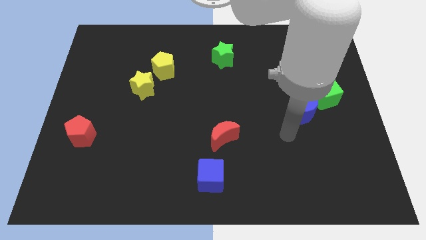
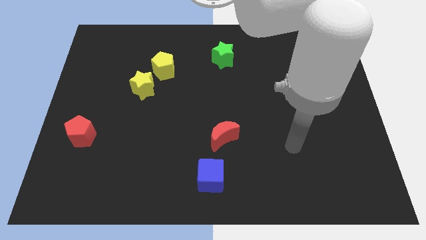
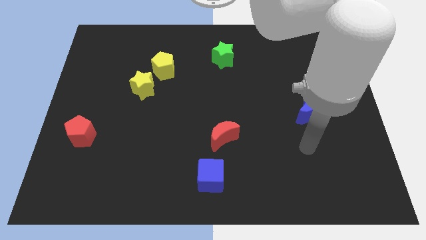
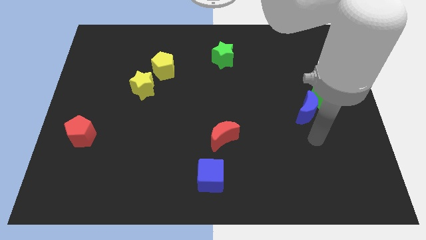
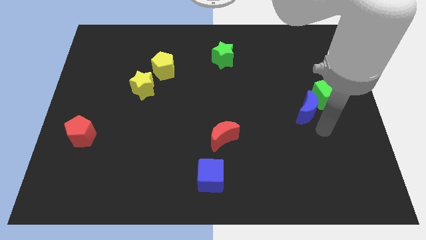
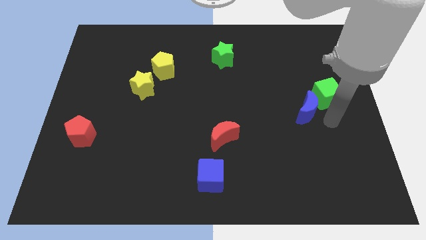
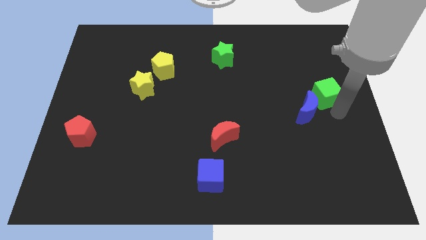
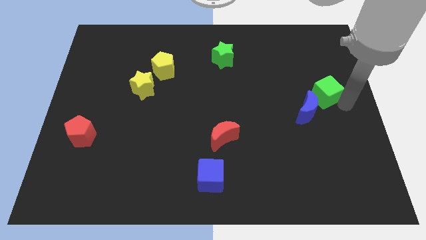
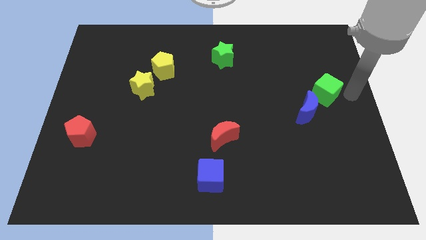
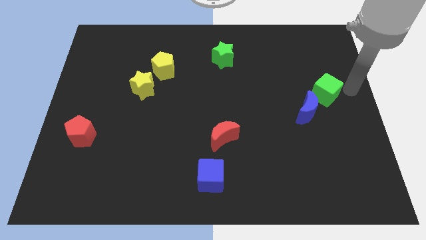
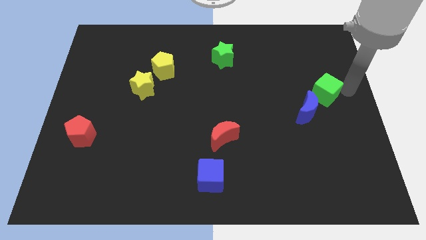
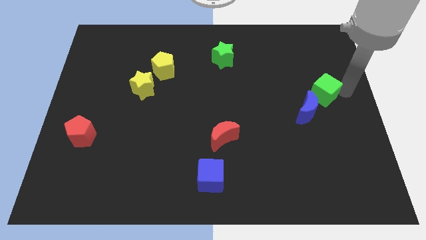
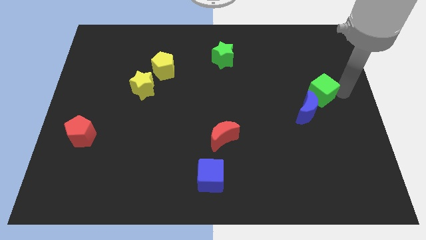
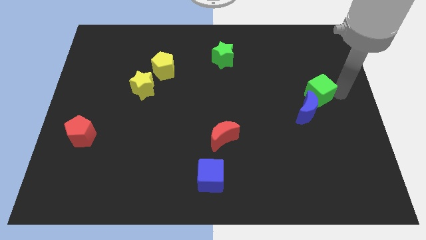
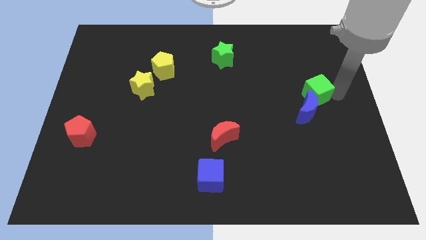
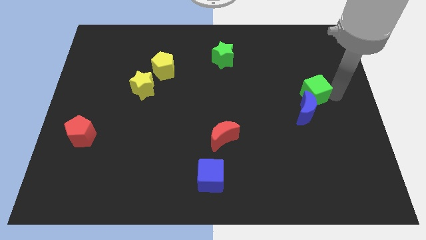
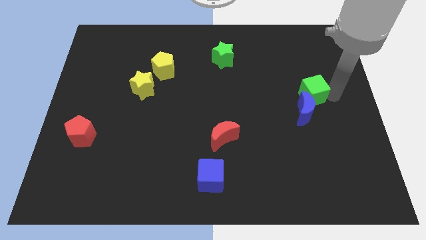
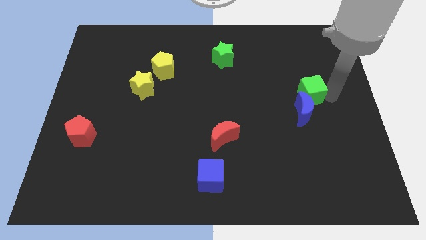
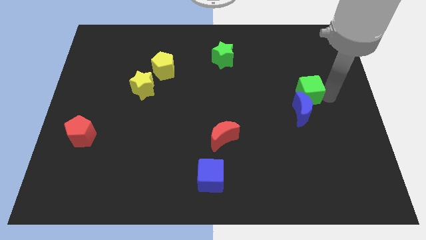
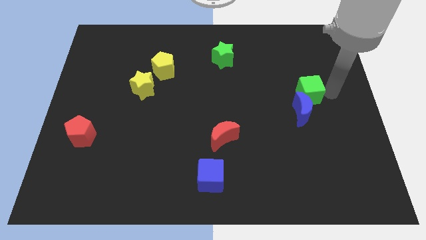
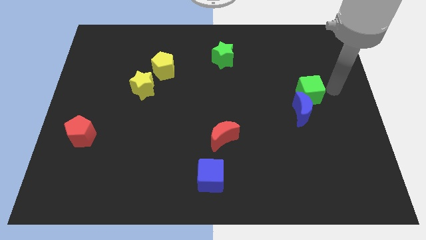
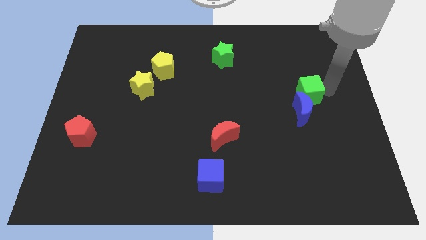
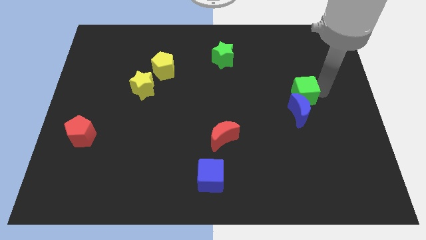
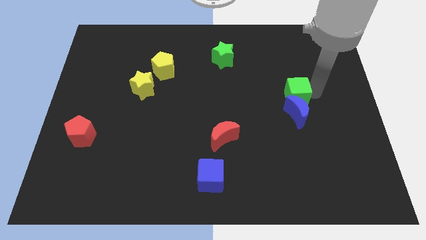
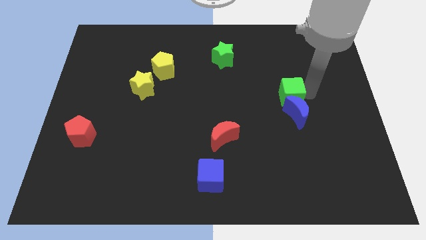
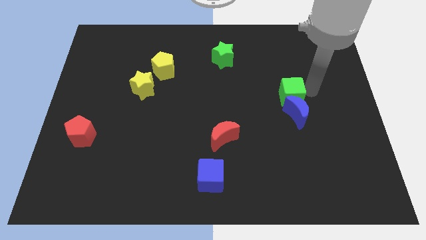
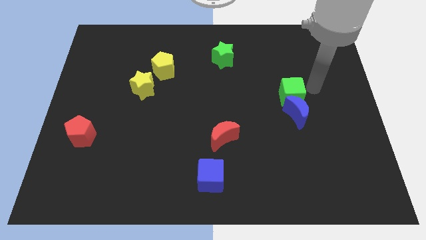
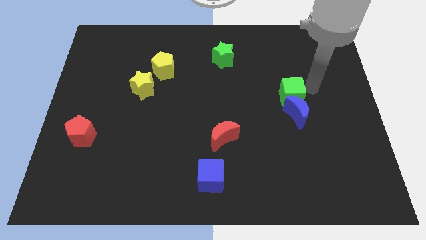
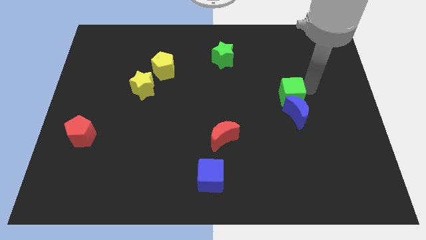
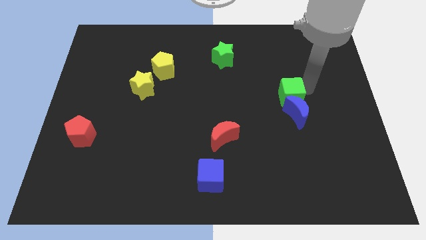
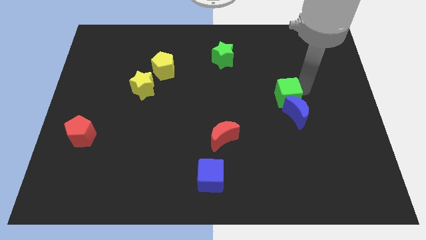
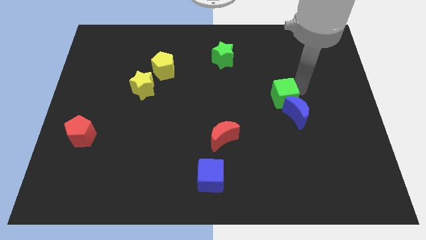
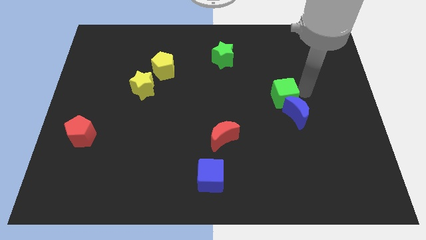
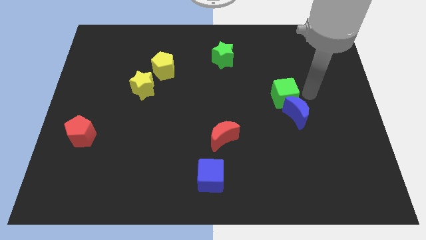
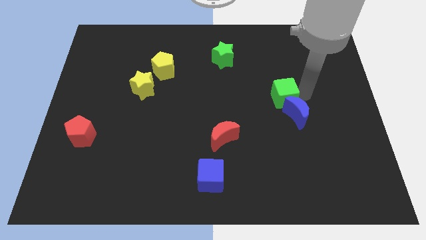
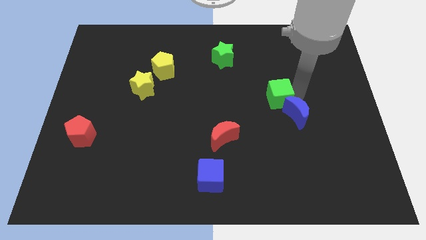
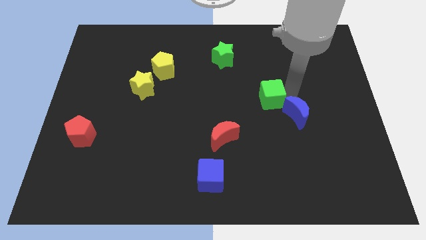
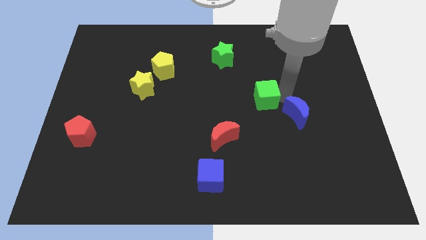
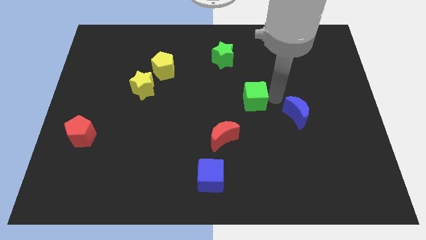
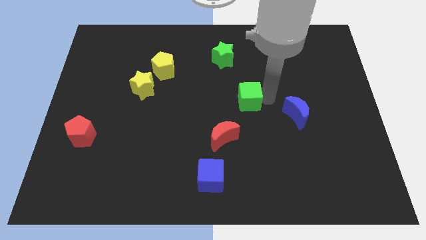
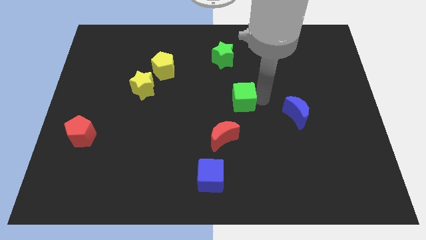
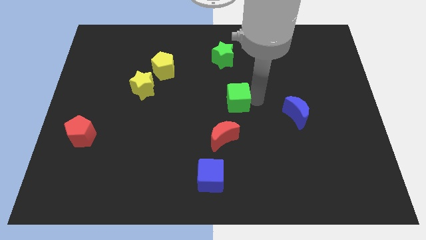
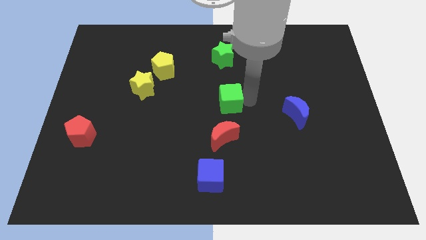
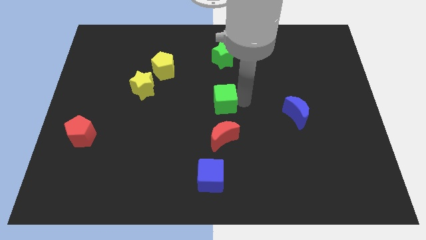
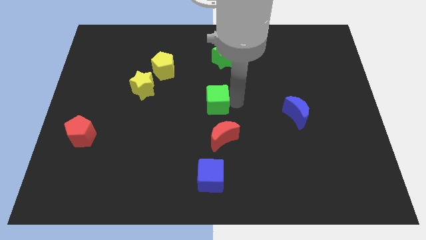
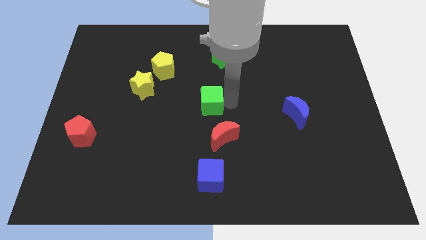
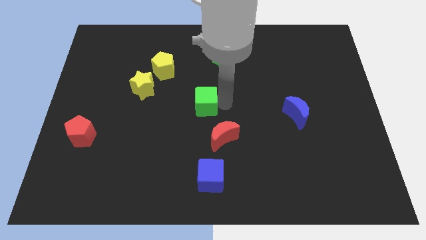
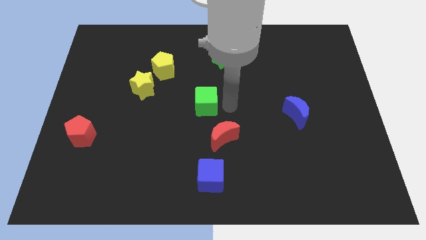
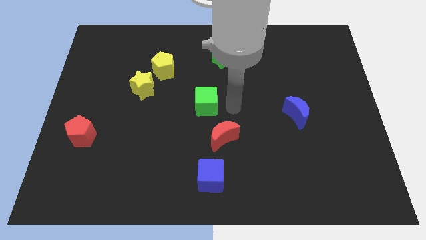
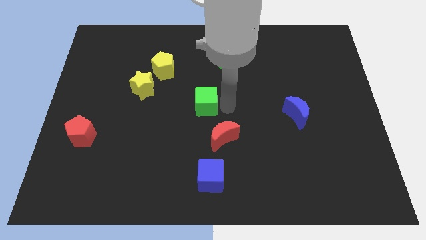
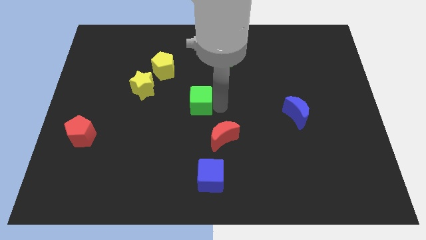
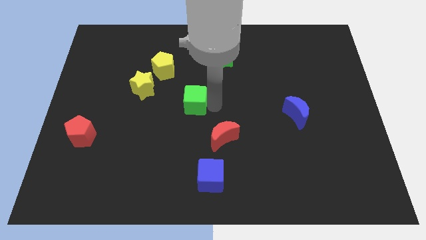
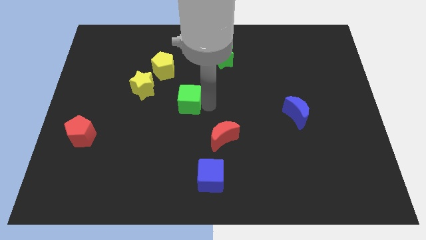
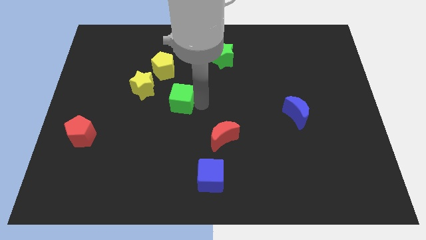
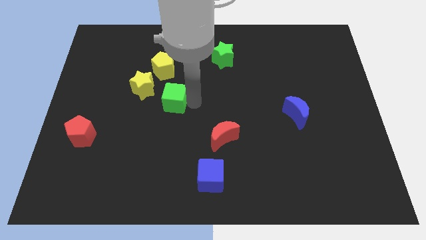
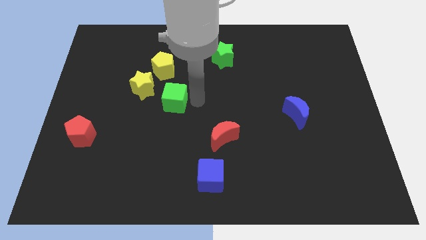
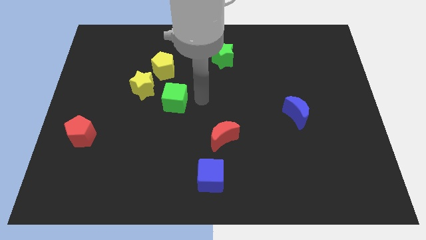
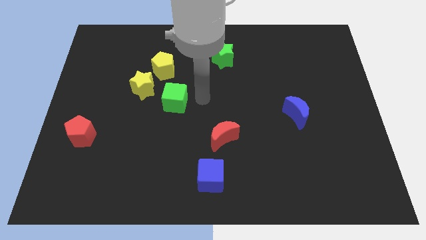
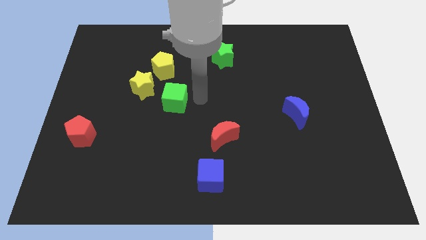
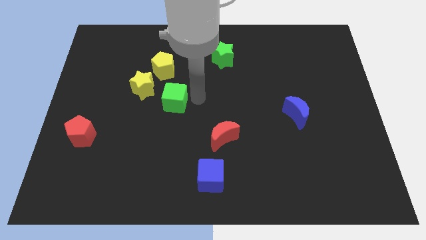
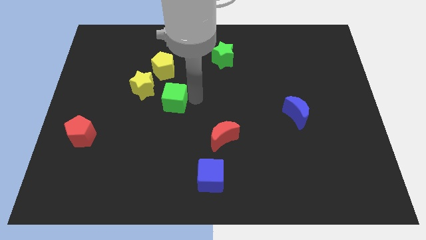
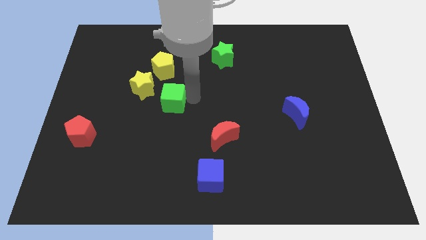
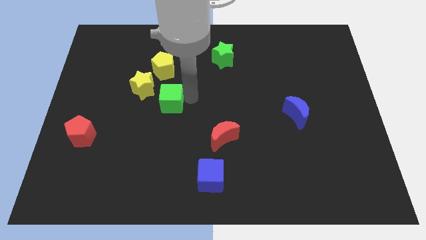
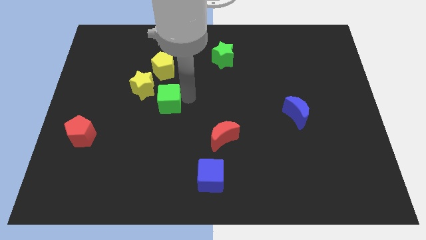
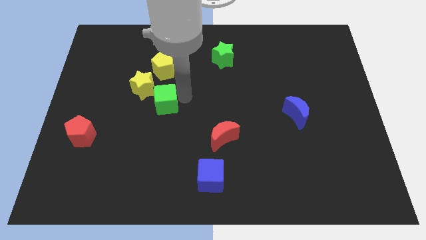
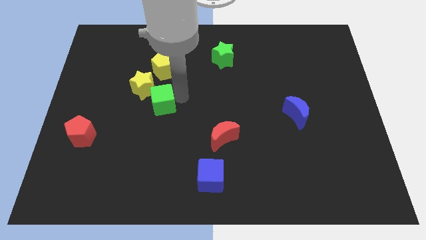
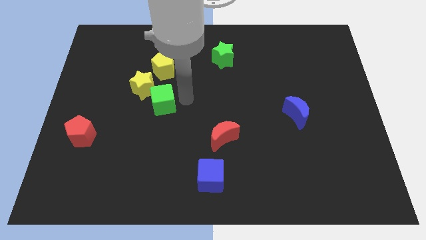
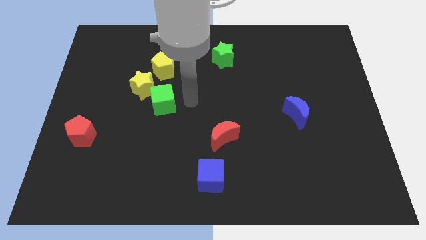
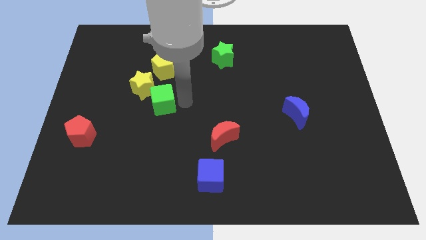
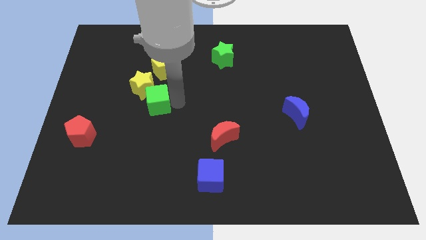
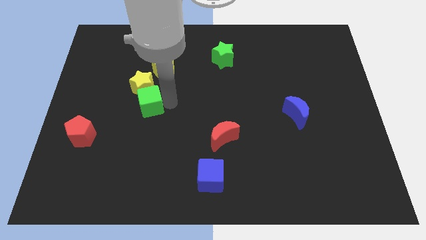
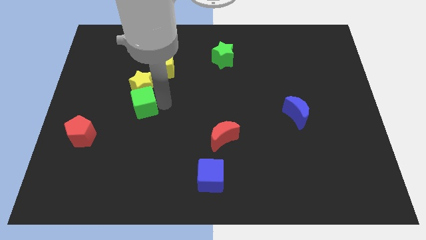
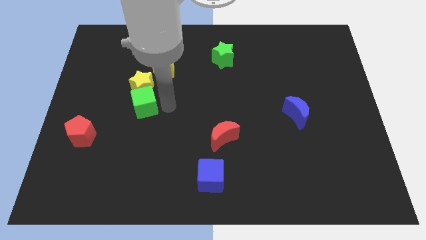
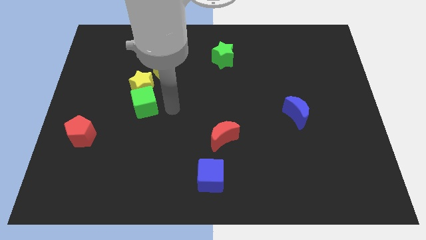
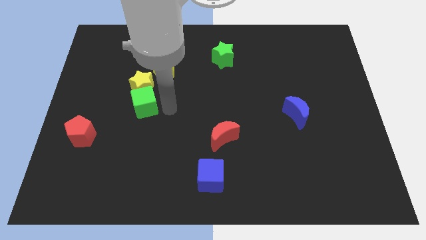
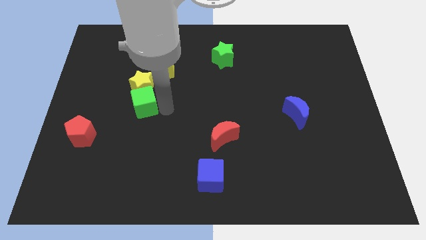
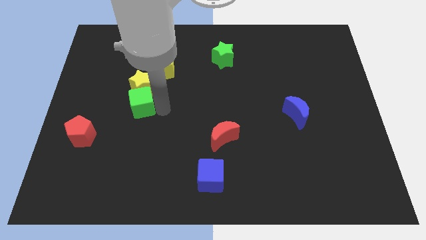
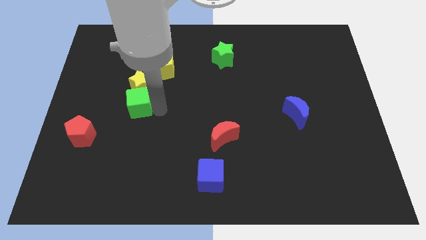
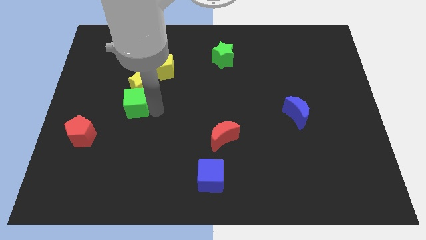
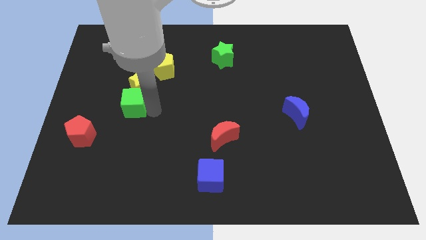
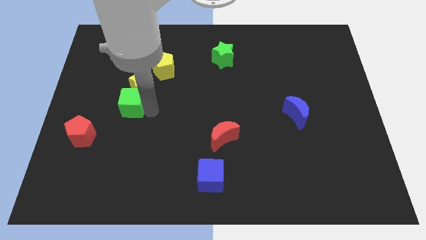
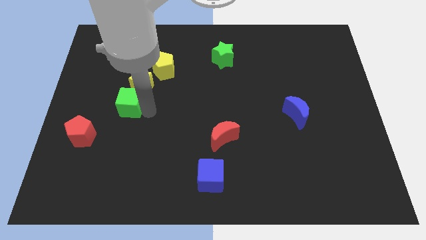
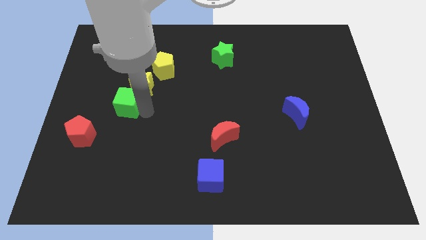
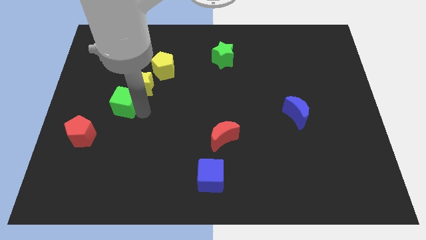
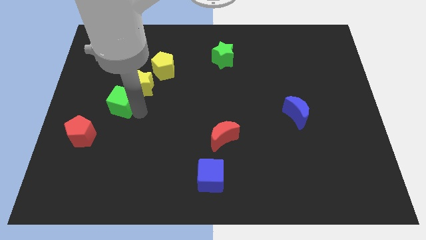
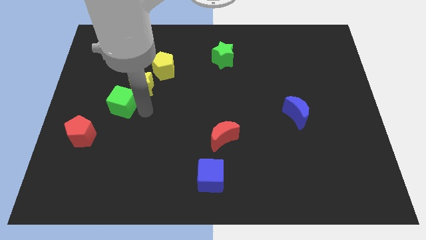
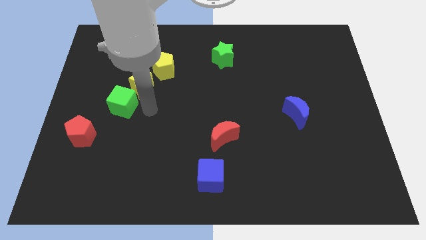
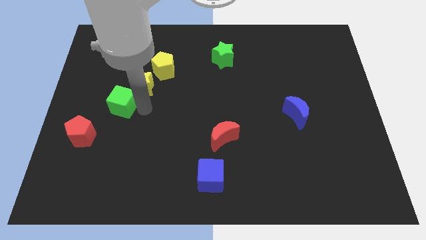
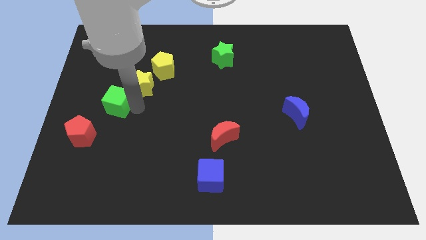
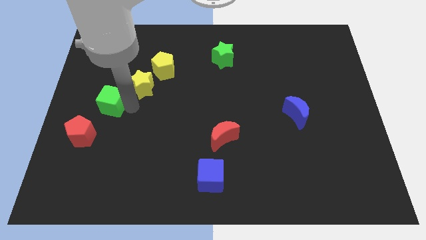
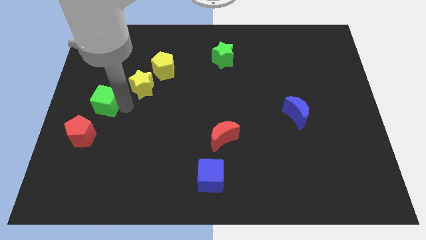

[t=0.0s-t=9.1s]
move the green cube to the left side
